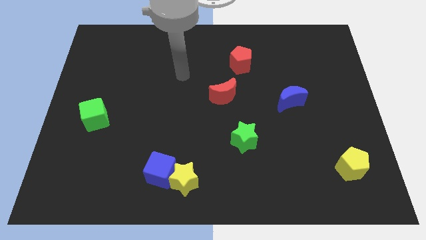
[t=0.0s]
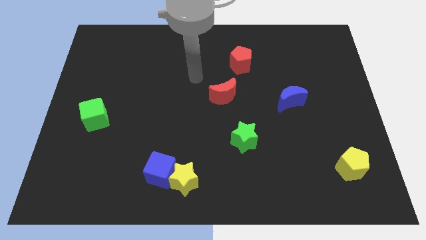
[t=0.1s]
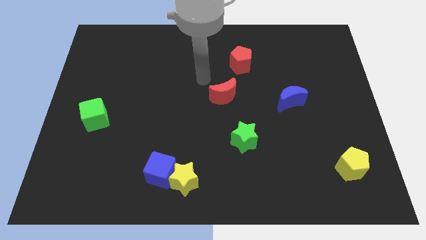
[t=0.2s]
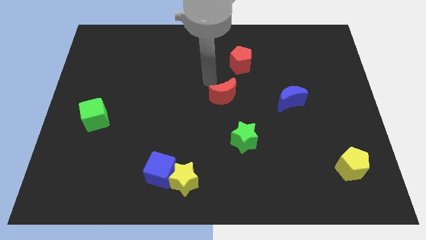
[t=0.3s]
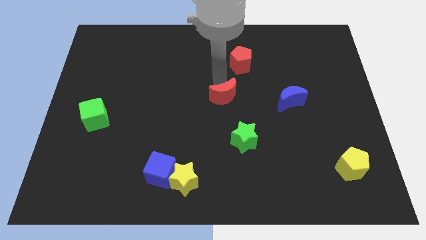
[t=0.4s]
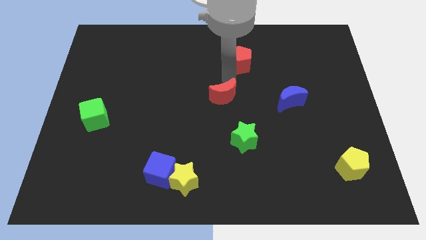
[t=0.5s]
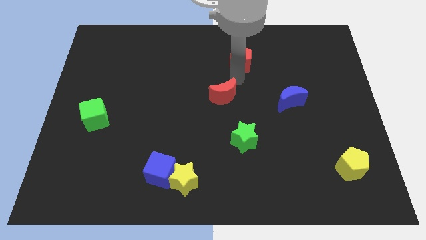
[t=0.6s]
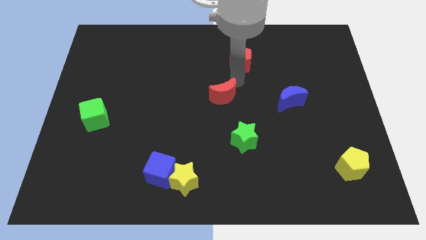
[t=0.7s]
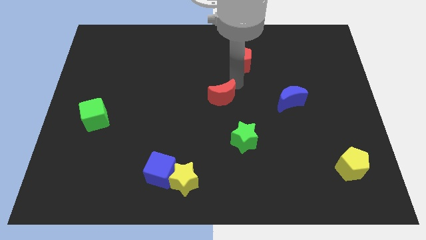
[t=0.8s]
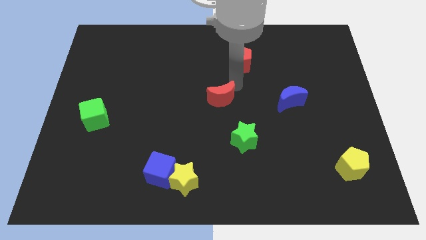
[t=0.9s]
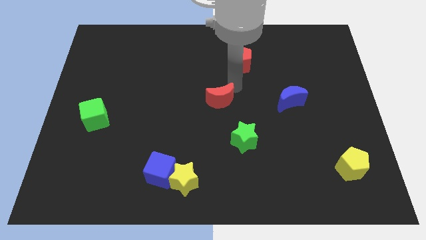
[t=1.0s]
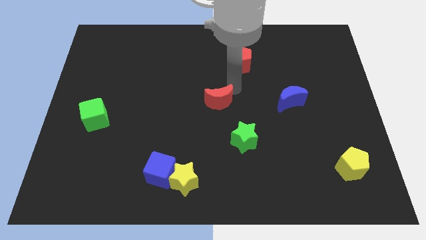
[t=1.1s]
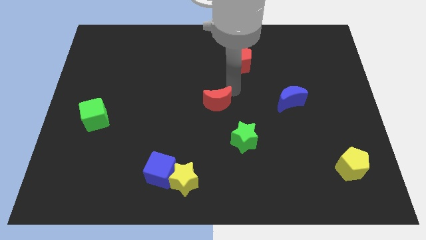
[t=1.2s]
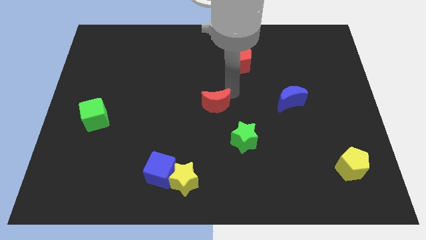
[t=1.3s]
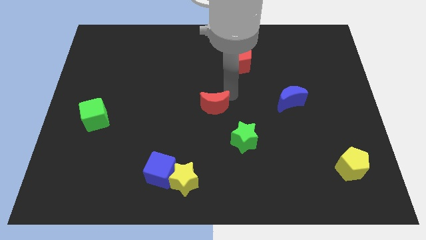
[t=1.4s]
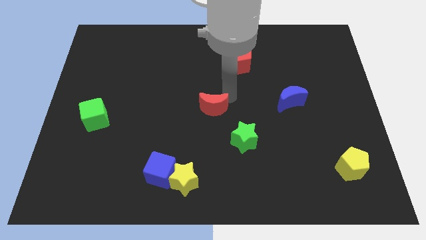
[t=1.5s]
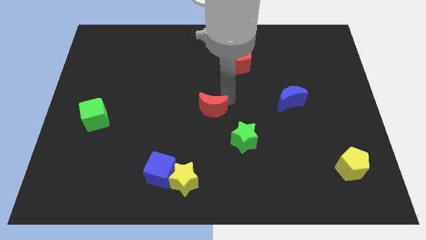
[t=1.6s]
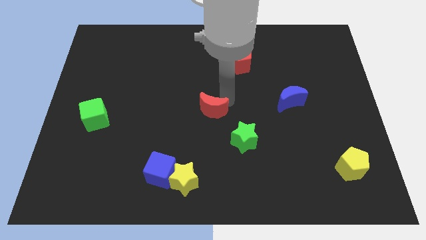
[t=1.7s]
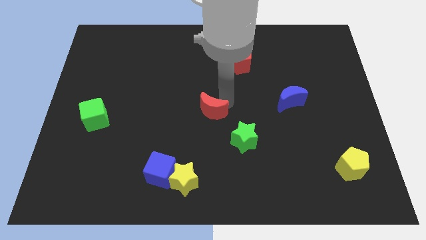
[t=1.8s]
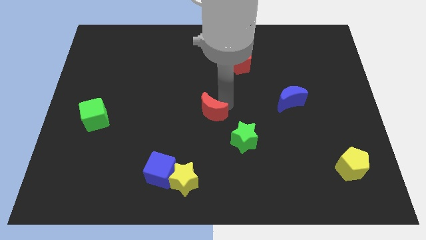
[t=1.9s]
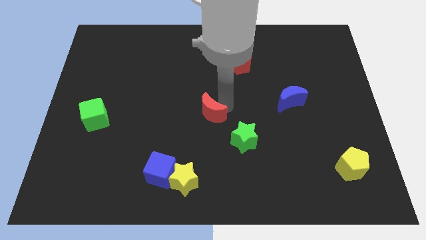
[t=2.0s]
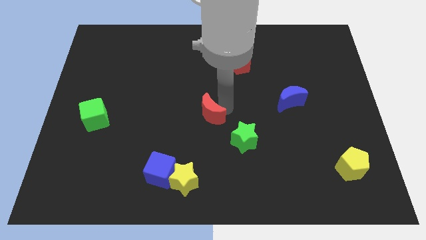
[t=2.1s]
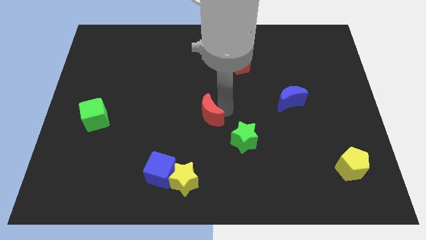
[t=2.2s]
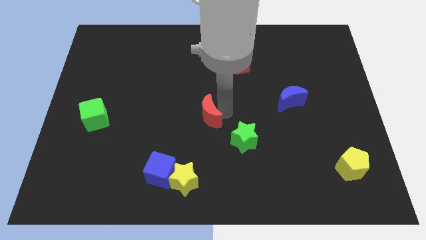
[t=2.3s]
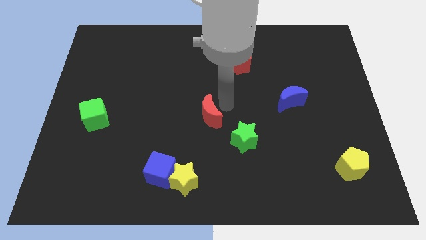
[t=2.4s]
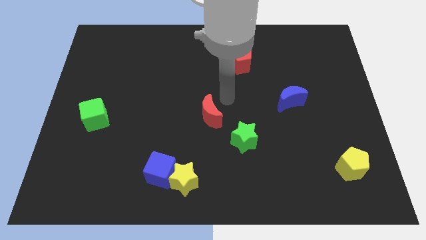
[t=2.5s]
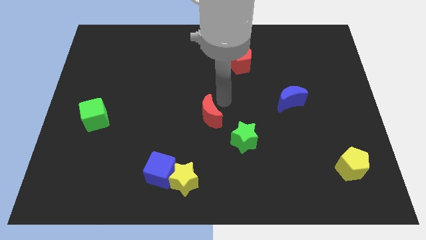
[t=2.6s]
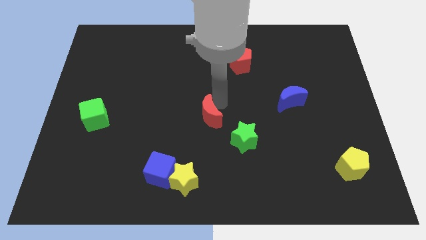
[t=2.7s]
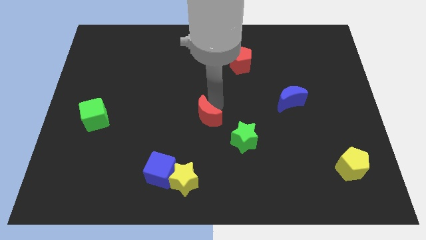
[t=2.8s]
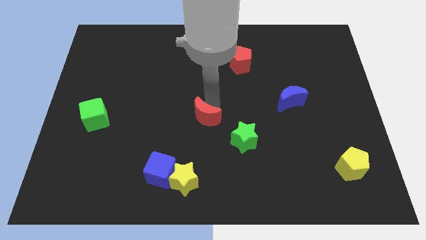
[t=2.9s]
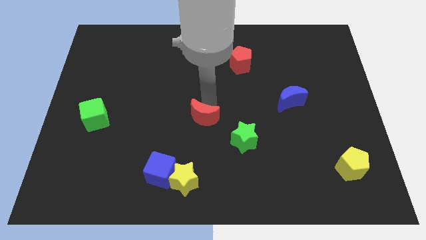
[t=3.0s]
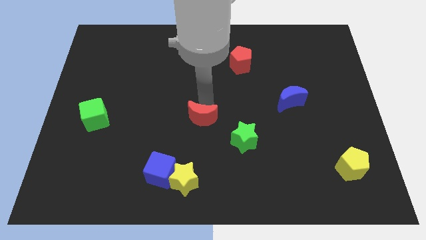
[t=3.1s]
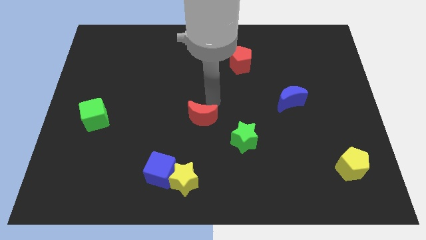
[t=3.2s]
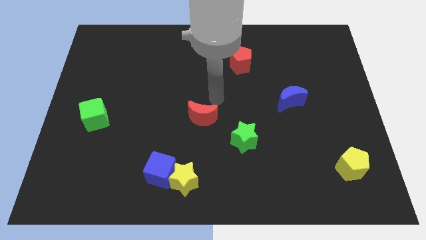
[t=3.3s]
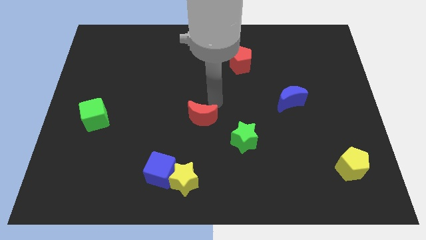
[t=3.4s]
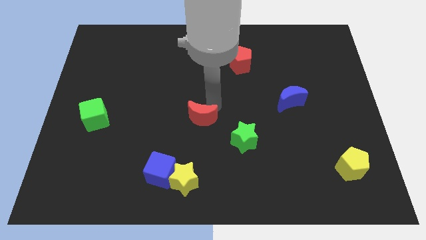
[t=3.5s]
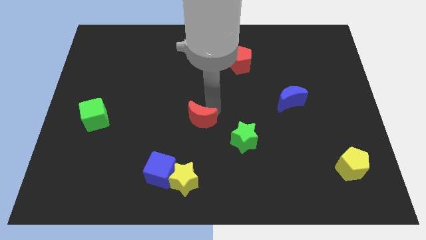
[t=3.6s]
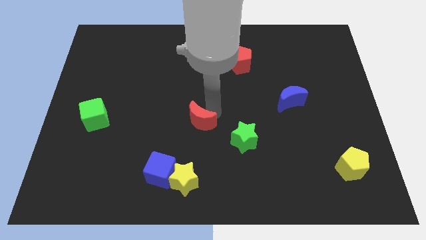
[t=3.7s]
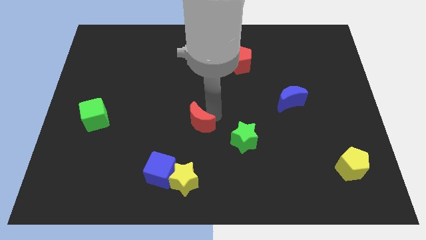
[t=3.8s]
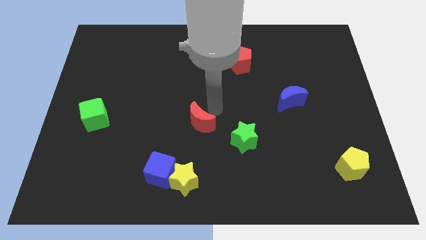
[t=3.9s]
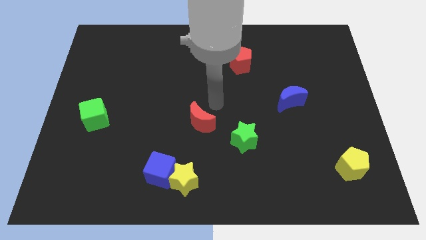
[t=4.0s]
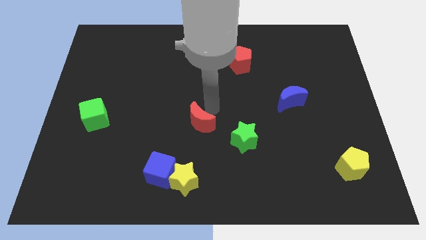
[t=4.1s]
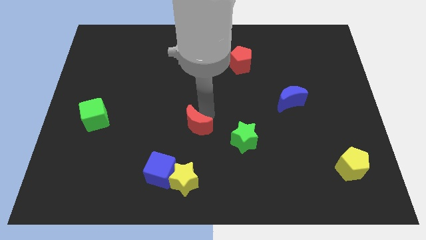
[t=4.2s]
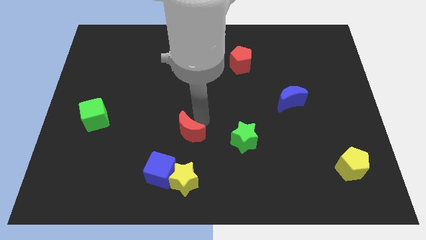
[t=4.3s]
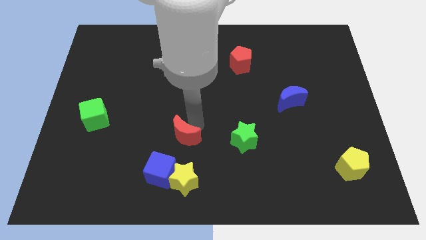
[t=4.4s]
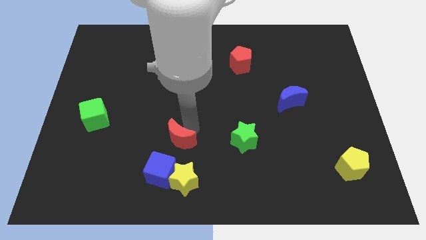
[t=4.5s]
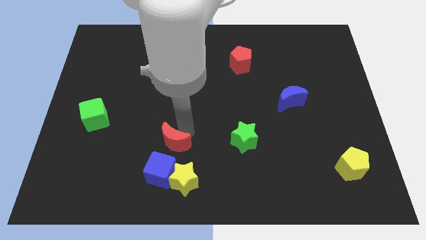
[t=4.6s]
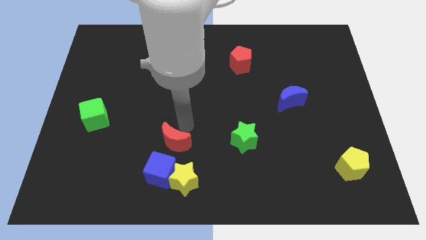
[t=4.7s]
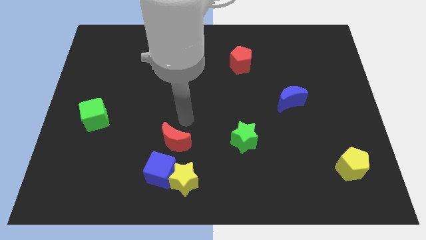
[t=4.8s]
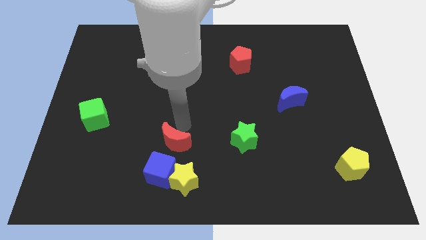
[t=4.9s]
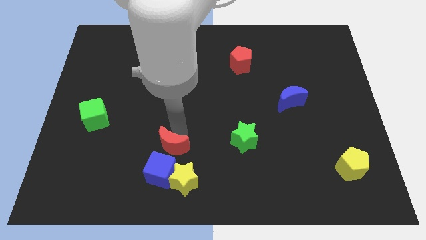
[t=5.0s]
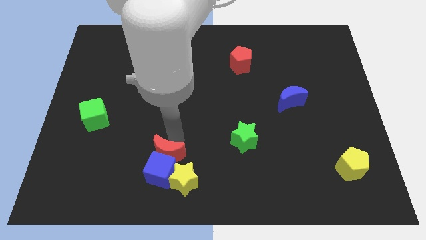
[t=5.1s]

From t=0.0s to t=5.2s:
move the red moon towards the blue cube

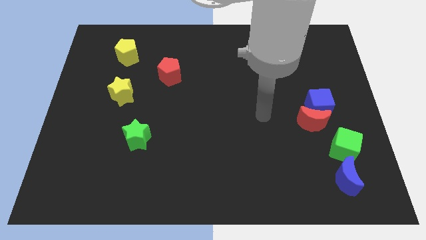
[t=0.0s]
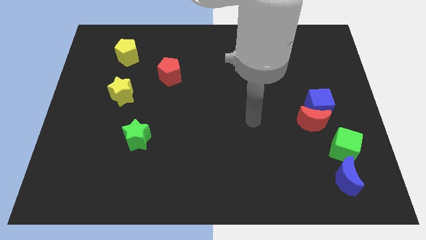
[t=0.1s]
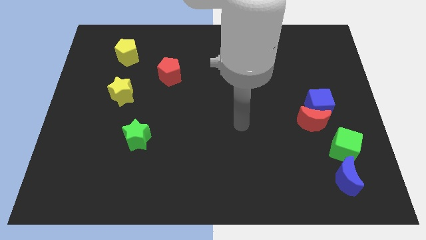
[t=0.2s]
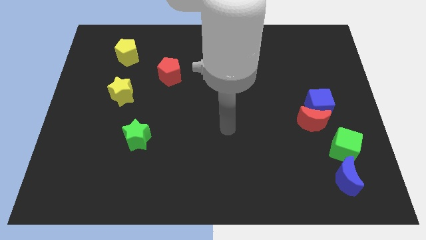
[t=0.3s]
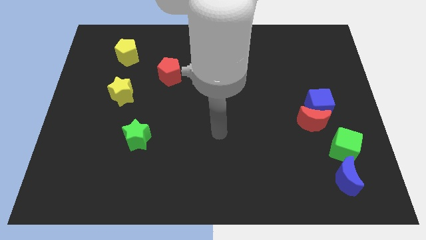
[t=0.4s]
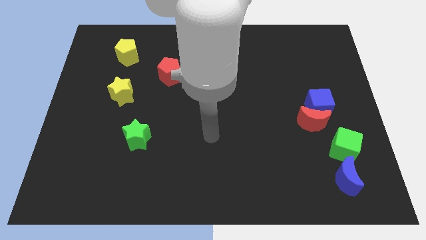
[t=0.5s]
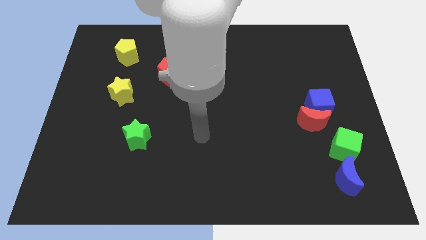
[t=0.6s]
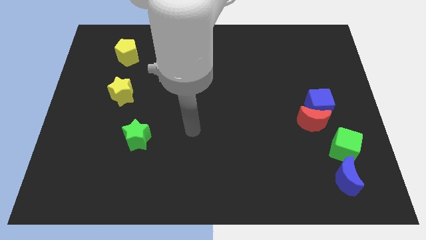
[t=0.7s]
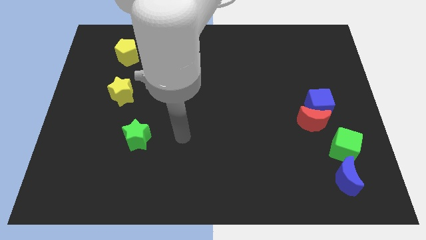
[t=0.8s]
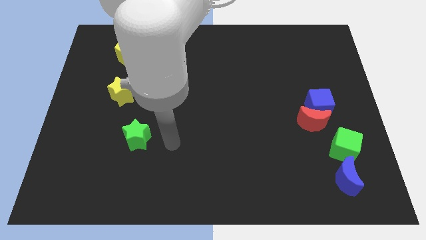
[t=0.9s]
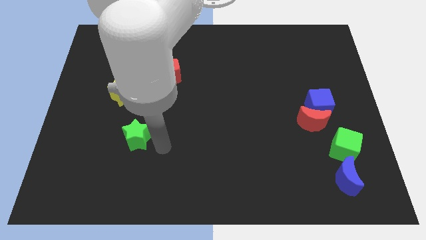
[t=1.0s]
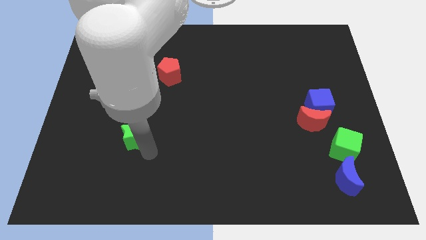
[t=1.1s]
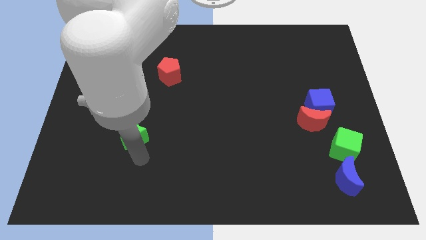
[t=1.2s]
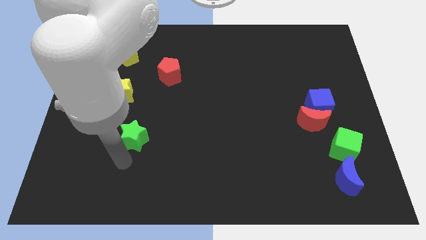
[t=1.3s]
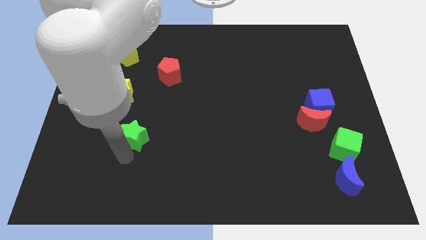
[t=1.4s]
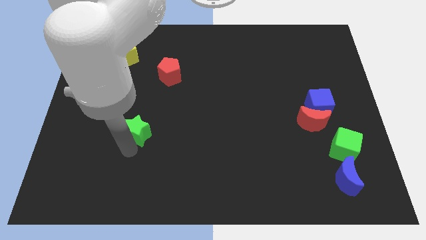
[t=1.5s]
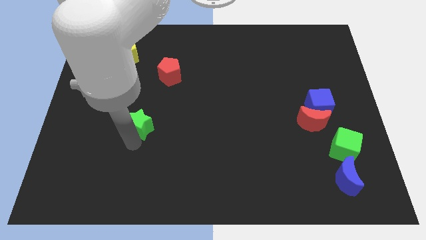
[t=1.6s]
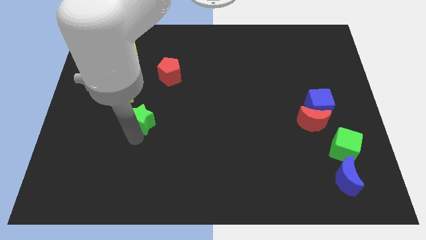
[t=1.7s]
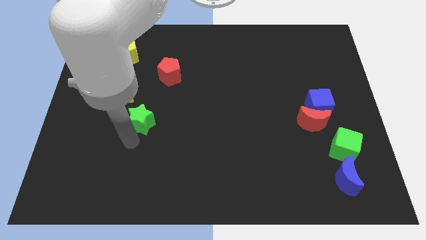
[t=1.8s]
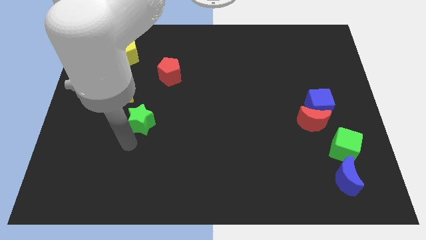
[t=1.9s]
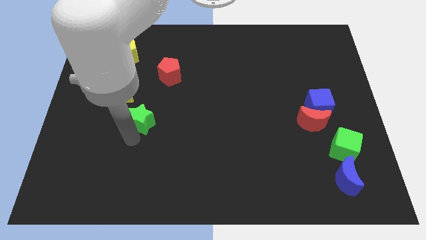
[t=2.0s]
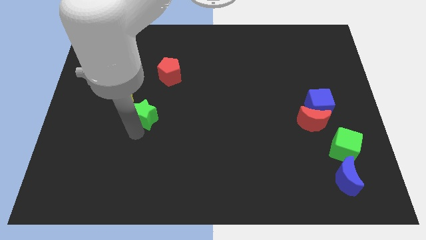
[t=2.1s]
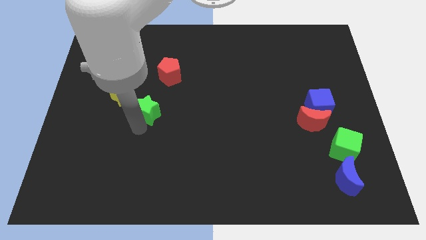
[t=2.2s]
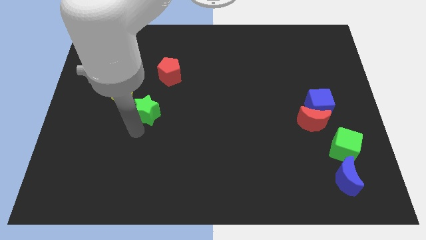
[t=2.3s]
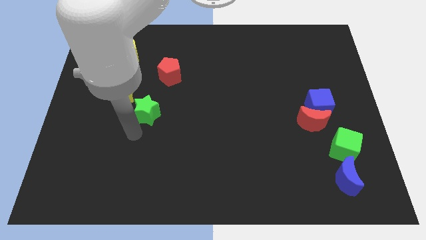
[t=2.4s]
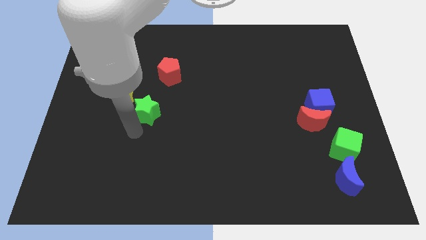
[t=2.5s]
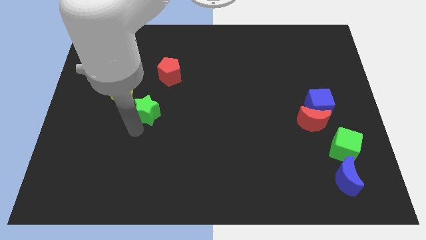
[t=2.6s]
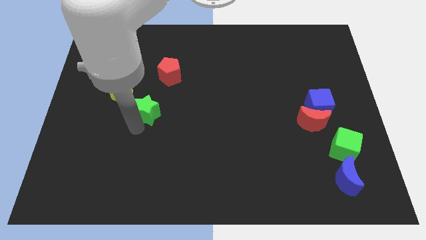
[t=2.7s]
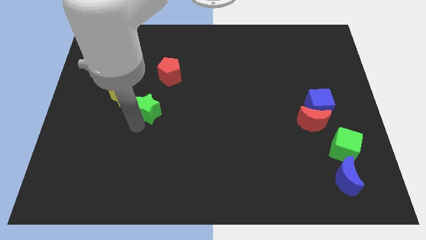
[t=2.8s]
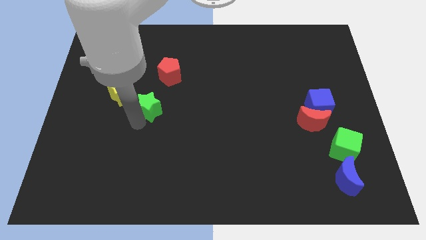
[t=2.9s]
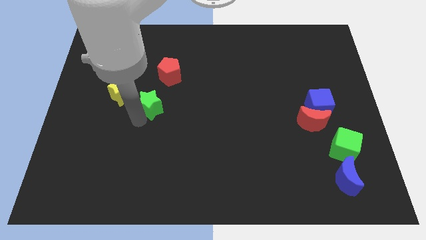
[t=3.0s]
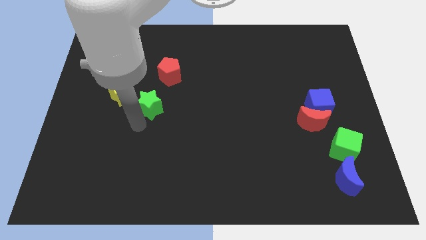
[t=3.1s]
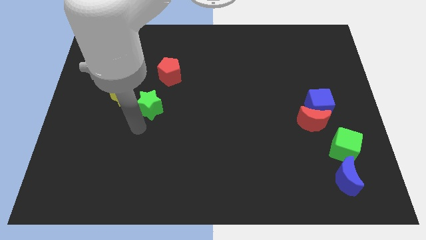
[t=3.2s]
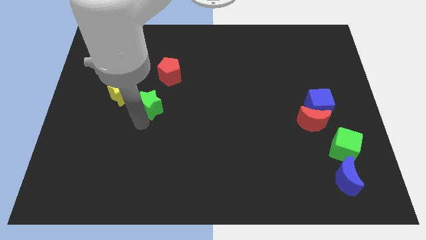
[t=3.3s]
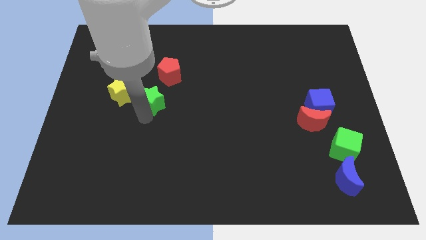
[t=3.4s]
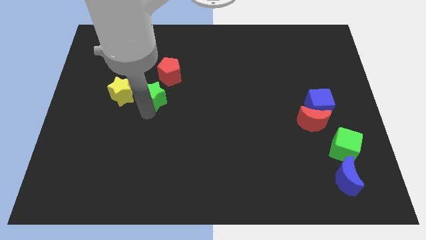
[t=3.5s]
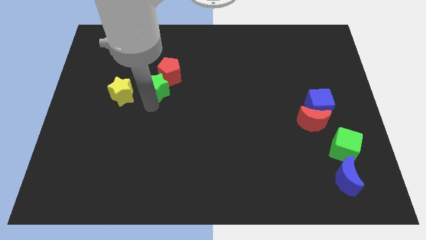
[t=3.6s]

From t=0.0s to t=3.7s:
move the green star towards the red pentagon
